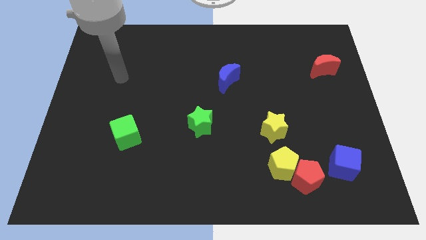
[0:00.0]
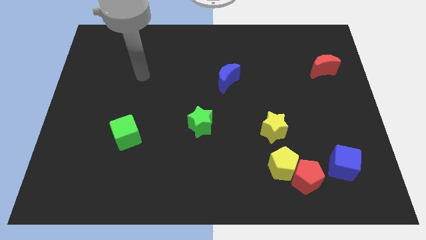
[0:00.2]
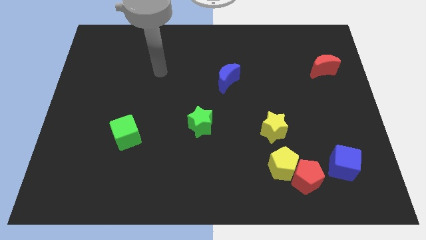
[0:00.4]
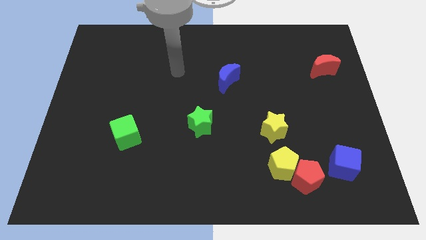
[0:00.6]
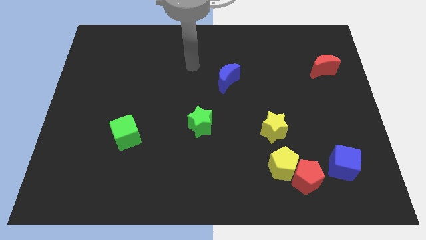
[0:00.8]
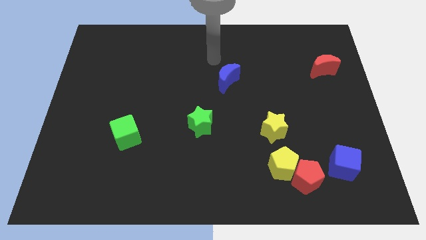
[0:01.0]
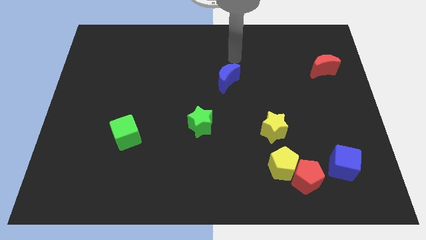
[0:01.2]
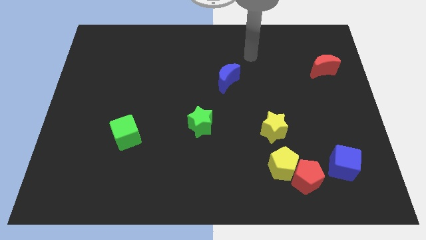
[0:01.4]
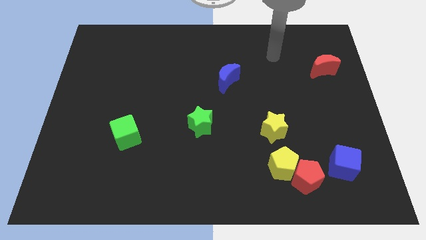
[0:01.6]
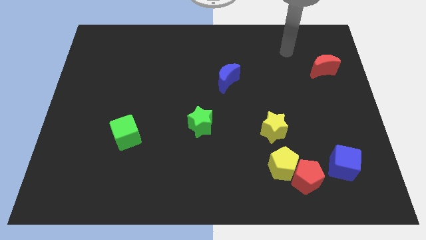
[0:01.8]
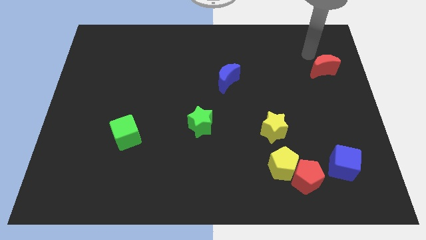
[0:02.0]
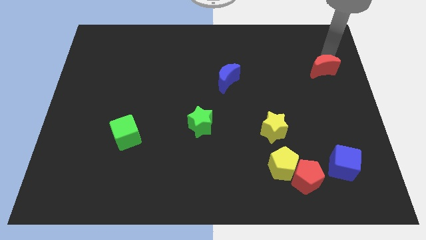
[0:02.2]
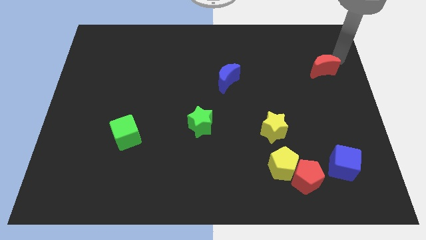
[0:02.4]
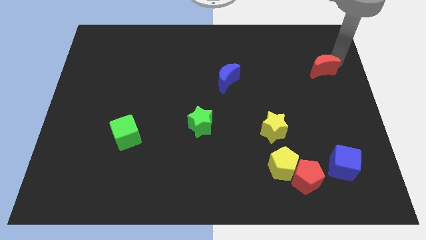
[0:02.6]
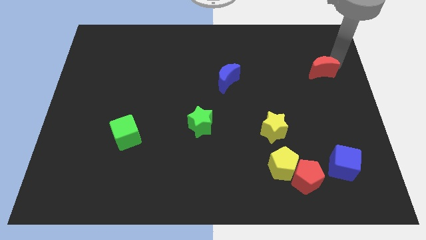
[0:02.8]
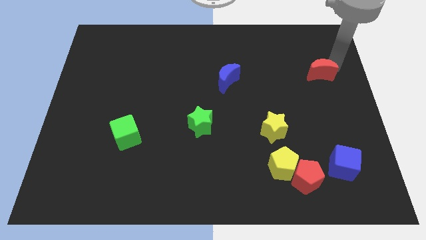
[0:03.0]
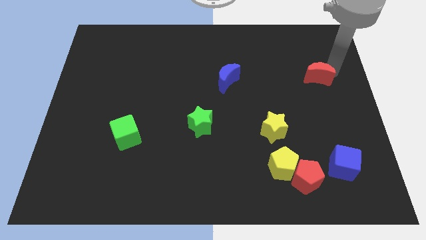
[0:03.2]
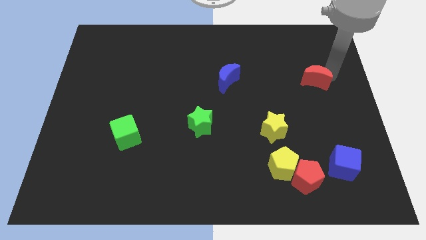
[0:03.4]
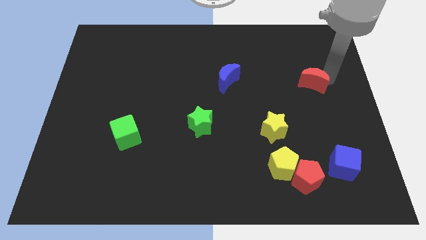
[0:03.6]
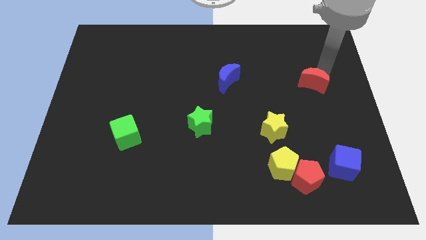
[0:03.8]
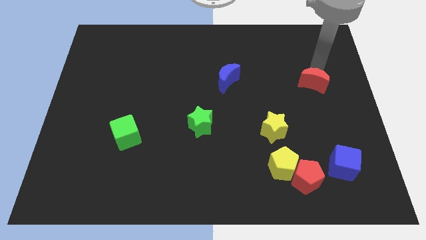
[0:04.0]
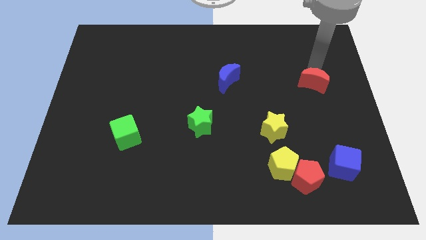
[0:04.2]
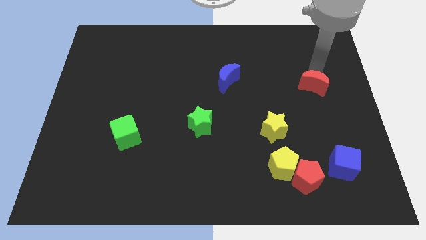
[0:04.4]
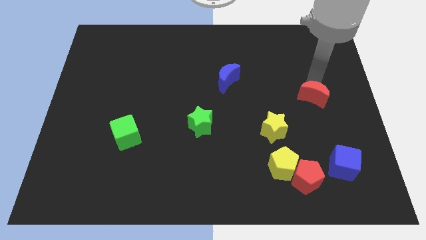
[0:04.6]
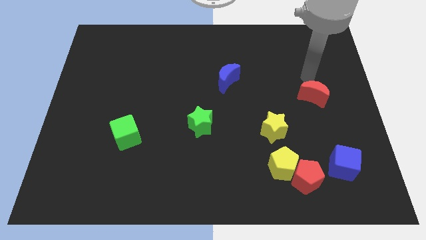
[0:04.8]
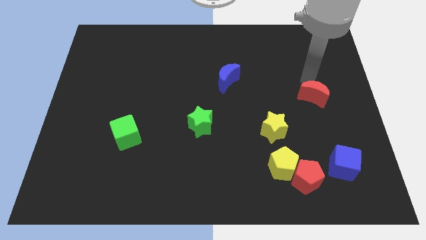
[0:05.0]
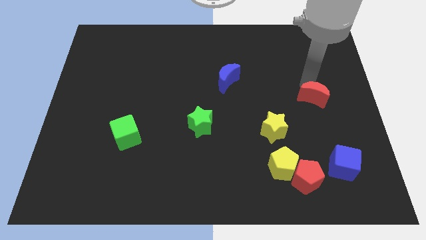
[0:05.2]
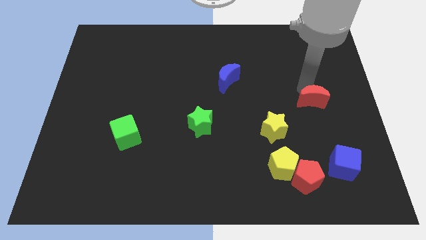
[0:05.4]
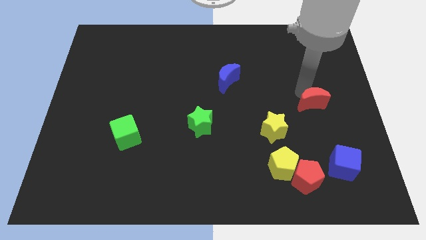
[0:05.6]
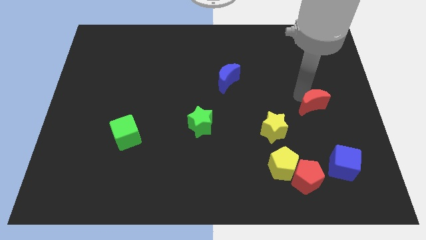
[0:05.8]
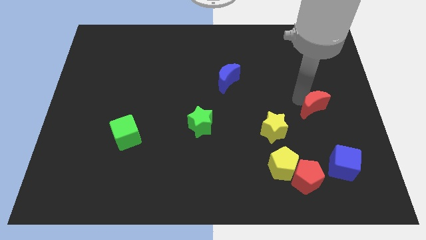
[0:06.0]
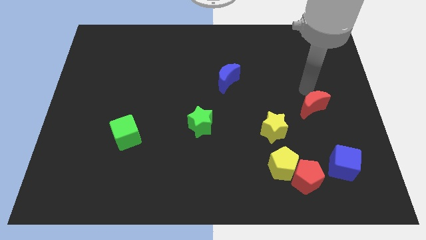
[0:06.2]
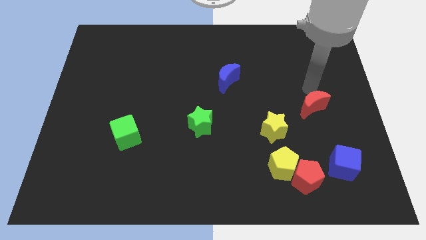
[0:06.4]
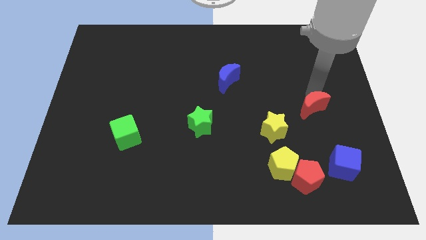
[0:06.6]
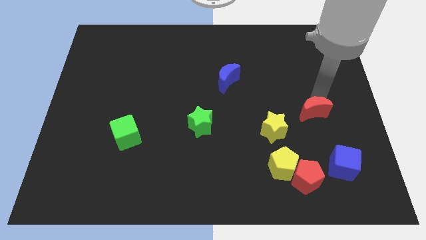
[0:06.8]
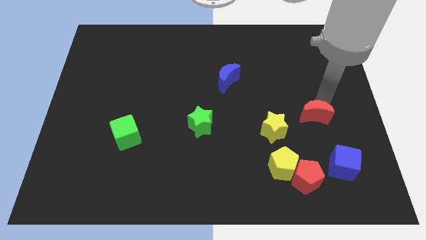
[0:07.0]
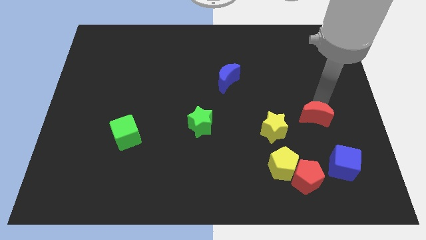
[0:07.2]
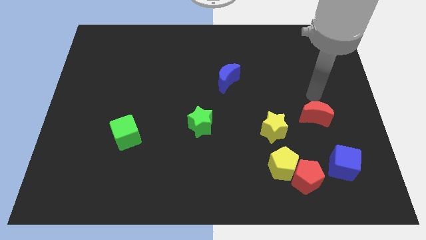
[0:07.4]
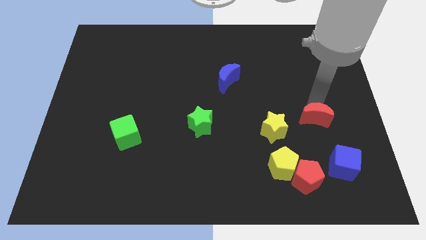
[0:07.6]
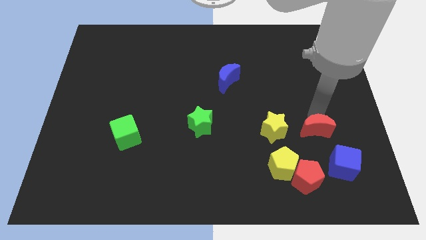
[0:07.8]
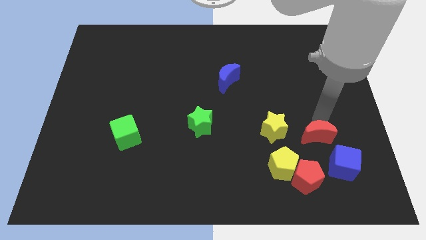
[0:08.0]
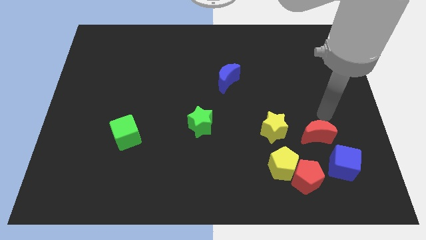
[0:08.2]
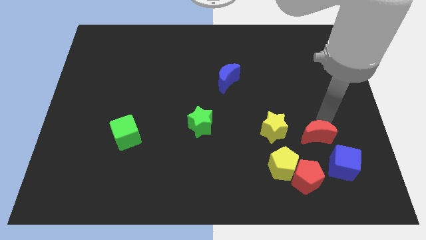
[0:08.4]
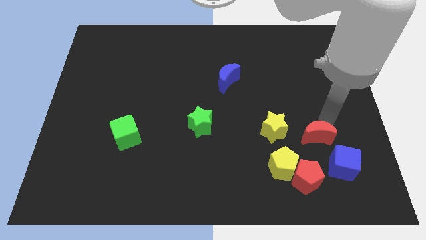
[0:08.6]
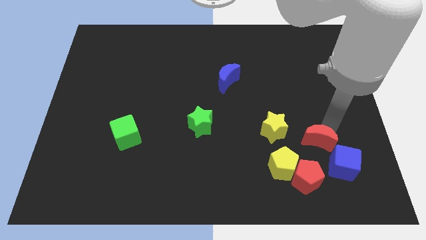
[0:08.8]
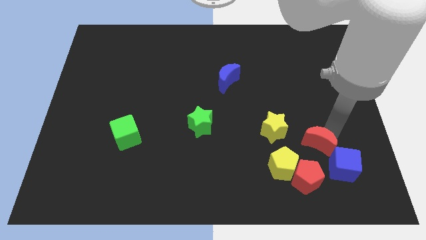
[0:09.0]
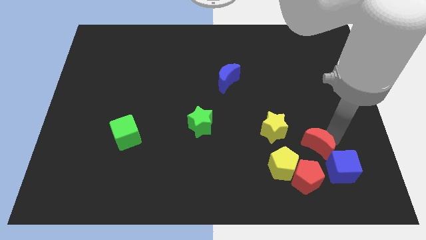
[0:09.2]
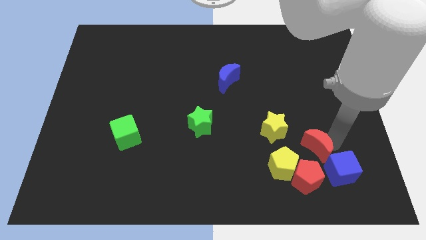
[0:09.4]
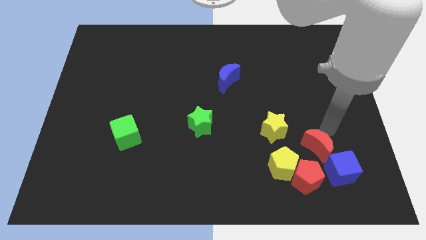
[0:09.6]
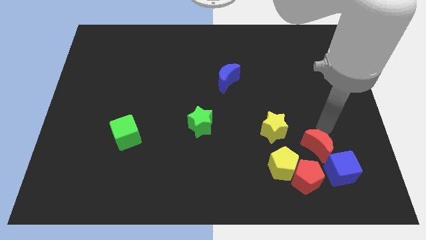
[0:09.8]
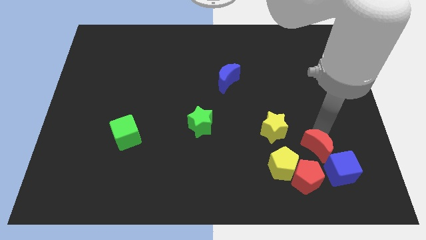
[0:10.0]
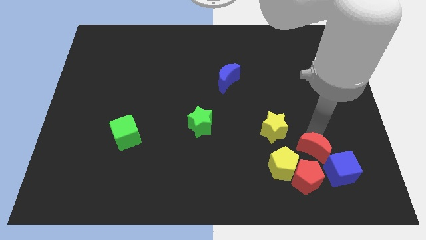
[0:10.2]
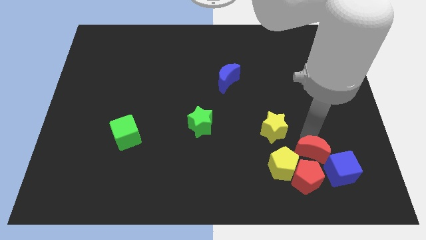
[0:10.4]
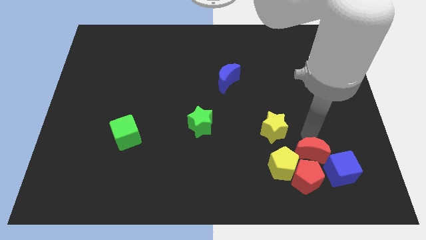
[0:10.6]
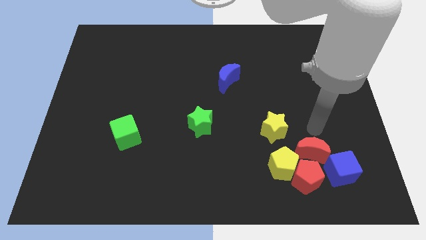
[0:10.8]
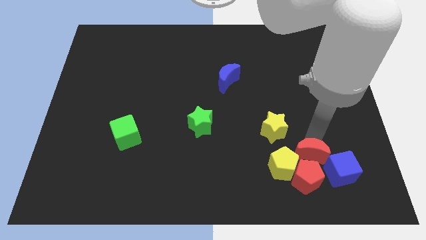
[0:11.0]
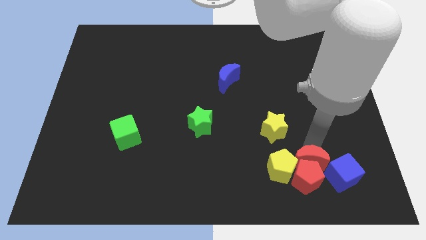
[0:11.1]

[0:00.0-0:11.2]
push the red moon to the red pentagon

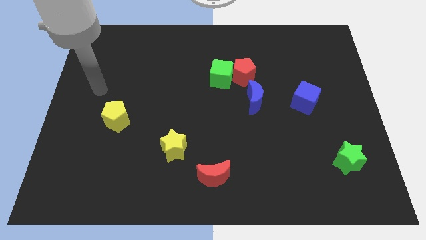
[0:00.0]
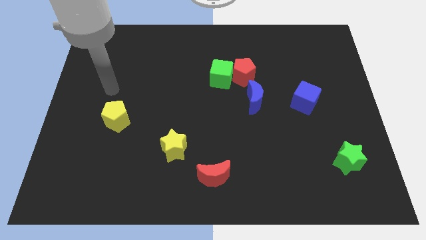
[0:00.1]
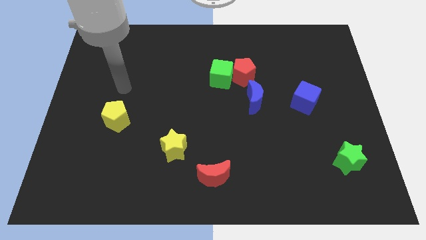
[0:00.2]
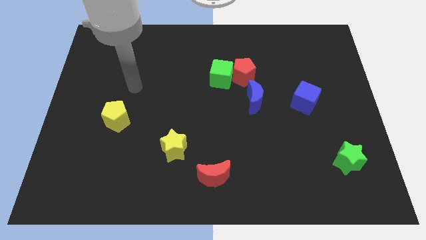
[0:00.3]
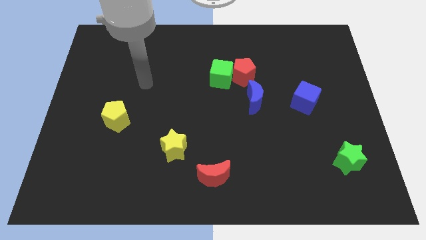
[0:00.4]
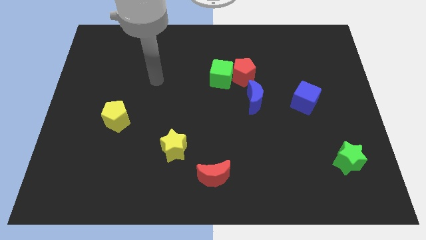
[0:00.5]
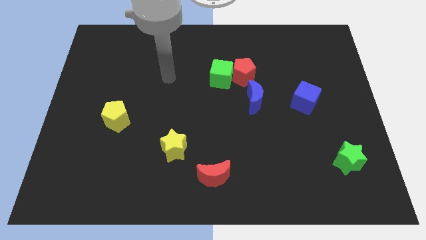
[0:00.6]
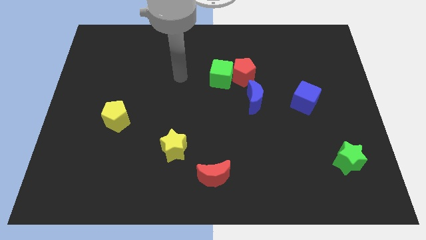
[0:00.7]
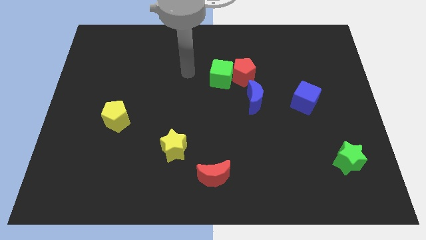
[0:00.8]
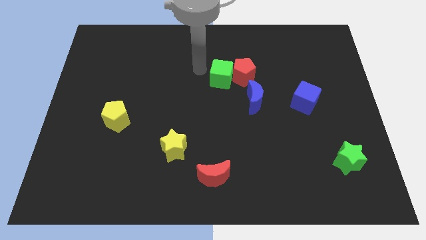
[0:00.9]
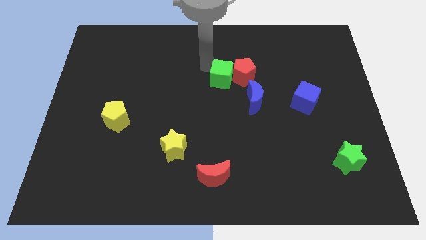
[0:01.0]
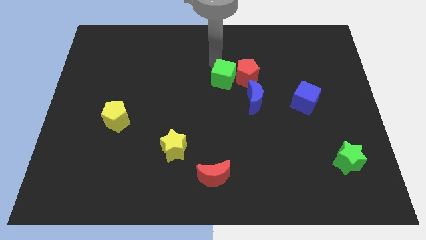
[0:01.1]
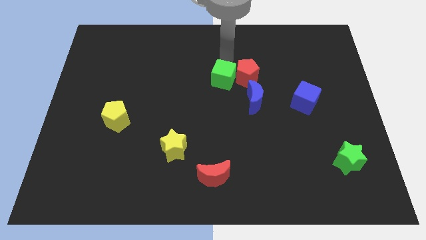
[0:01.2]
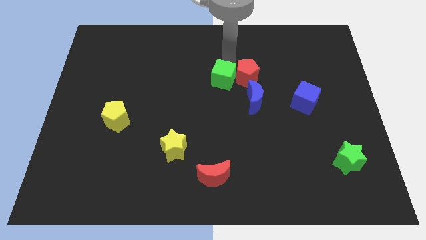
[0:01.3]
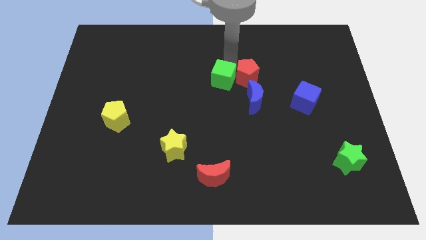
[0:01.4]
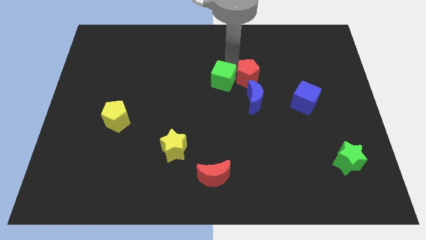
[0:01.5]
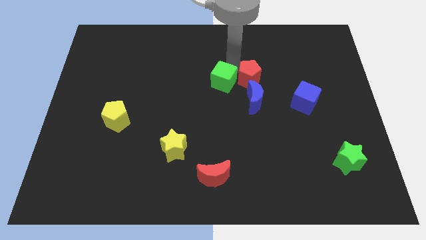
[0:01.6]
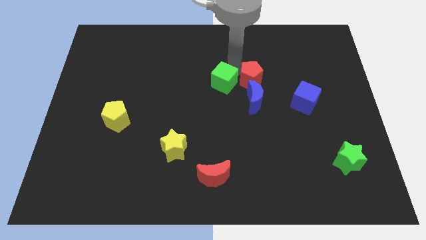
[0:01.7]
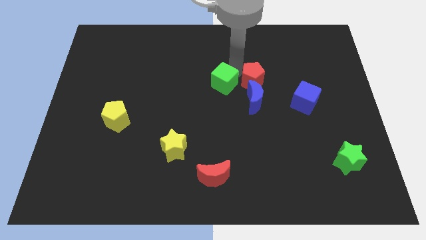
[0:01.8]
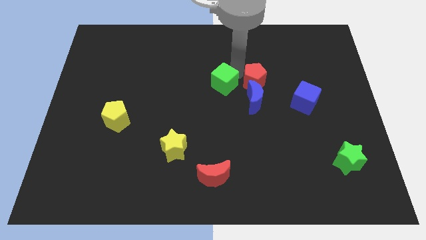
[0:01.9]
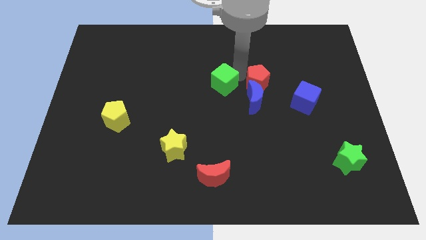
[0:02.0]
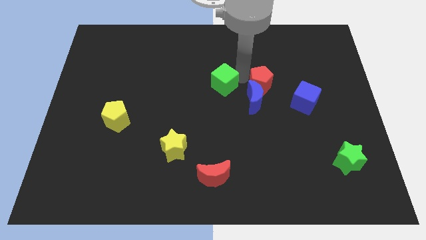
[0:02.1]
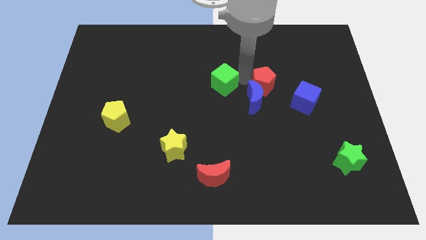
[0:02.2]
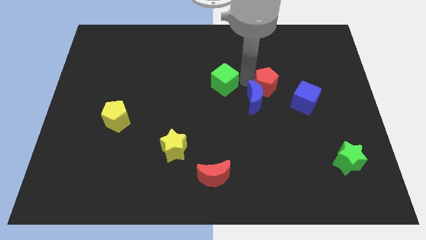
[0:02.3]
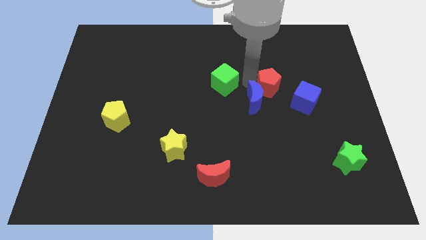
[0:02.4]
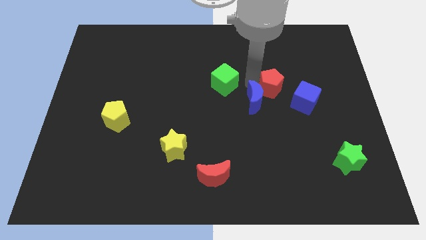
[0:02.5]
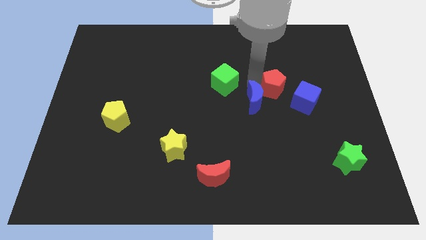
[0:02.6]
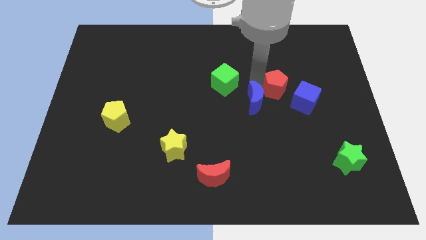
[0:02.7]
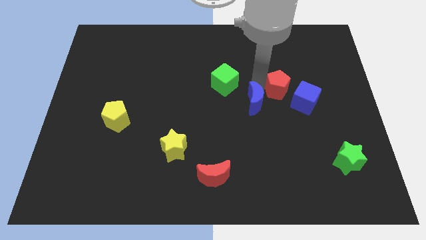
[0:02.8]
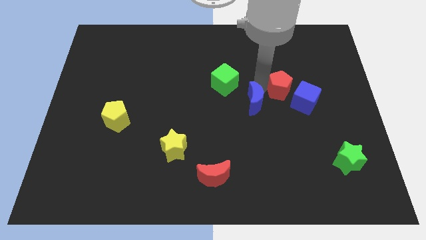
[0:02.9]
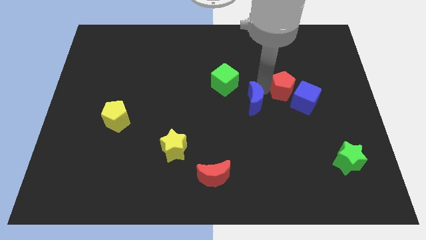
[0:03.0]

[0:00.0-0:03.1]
move the red pentagon towards the blue cube
